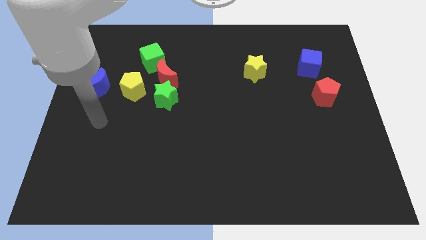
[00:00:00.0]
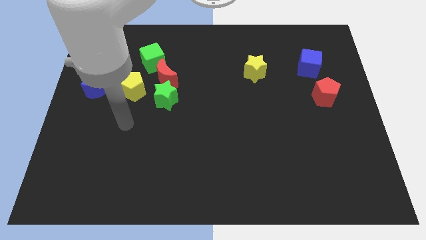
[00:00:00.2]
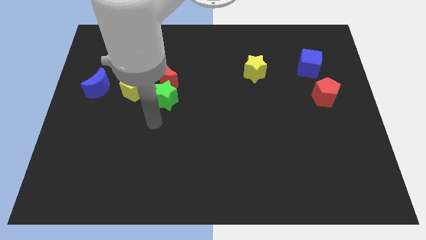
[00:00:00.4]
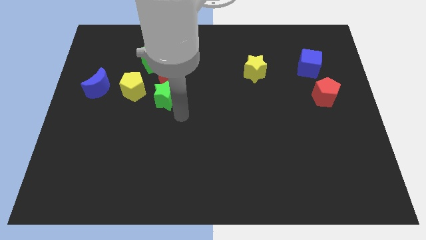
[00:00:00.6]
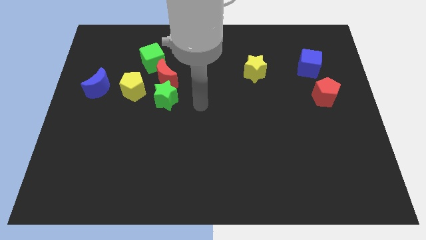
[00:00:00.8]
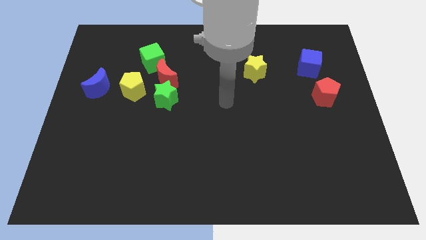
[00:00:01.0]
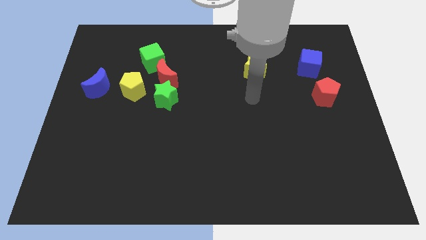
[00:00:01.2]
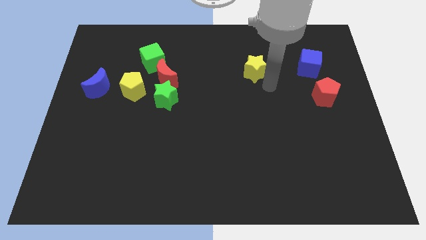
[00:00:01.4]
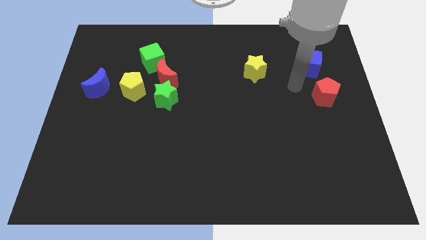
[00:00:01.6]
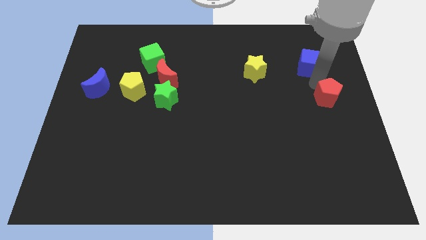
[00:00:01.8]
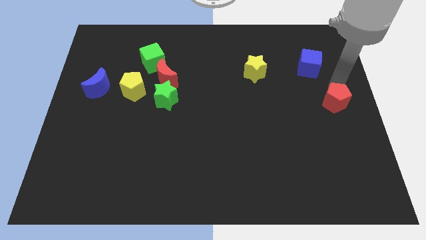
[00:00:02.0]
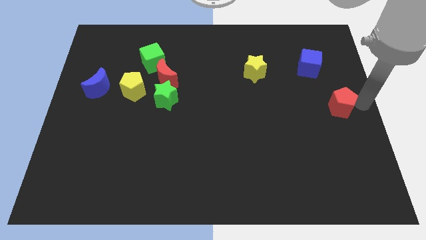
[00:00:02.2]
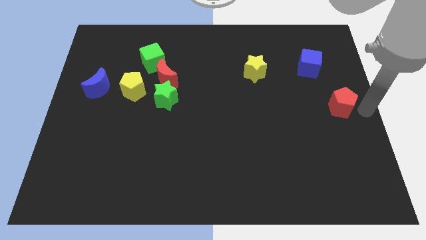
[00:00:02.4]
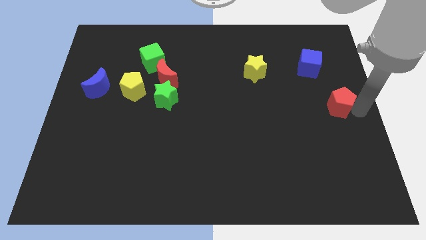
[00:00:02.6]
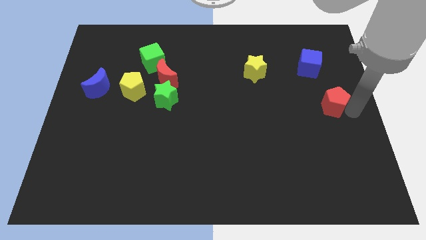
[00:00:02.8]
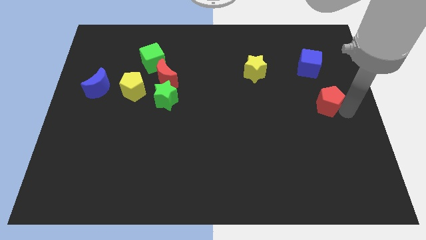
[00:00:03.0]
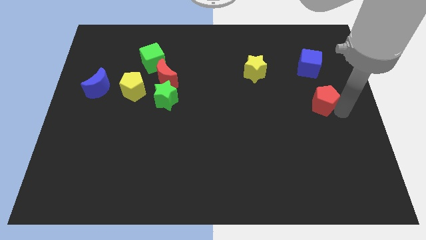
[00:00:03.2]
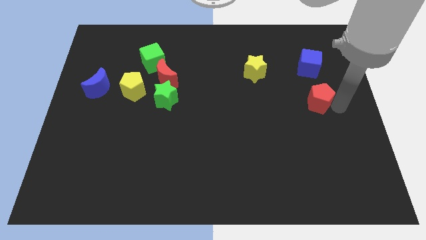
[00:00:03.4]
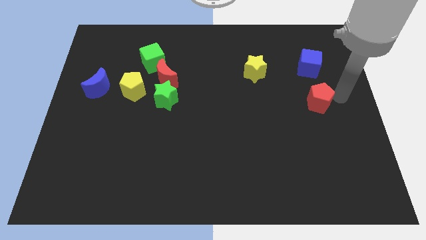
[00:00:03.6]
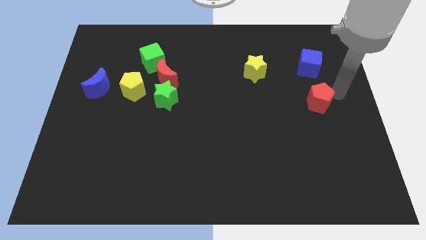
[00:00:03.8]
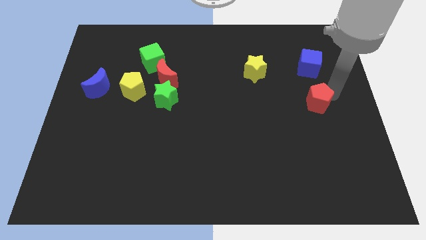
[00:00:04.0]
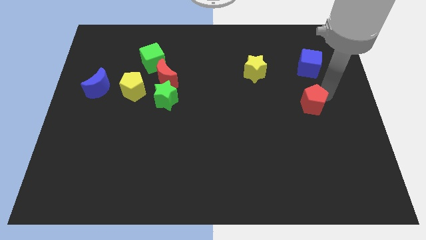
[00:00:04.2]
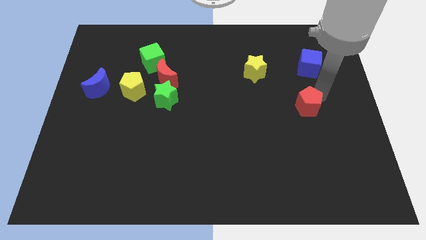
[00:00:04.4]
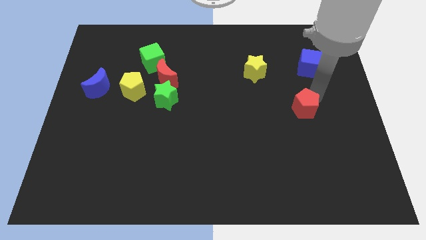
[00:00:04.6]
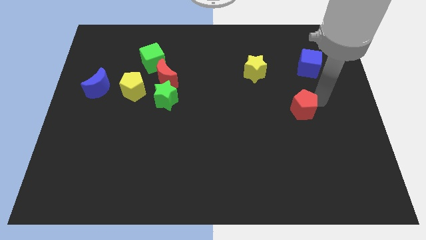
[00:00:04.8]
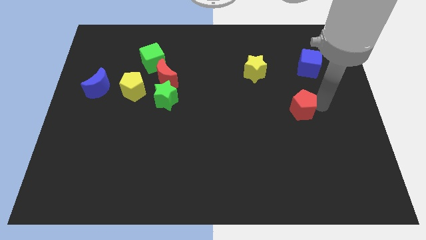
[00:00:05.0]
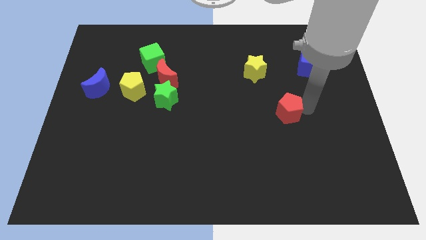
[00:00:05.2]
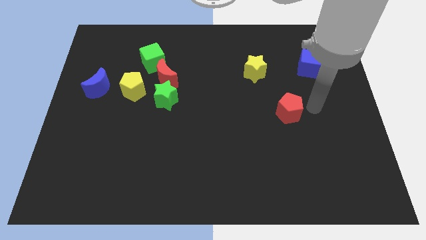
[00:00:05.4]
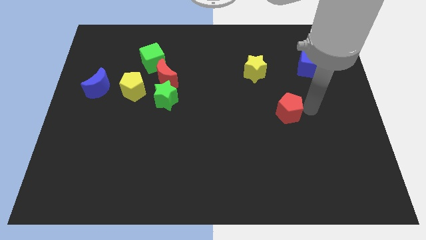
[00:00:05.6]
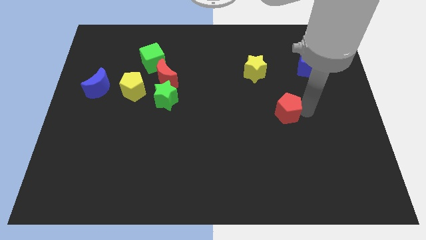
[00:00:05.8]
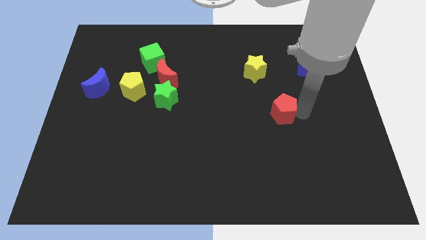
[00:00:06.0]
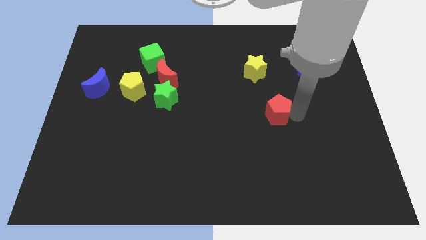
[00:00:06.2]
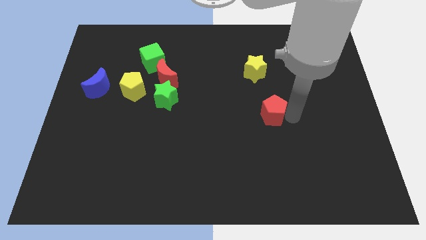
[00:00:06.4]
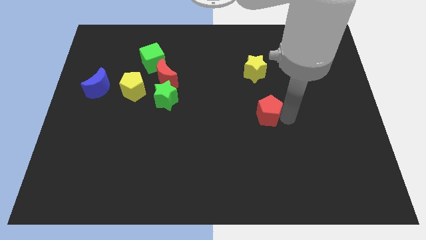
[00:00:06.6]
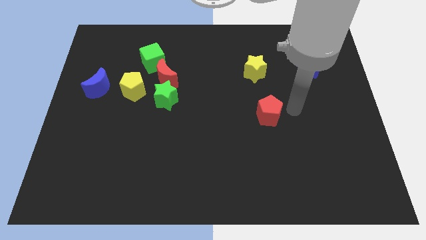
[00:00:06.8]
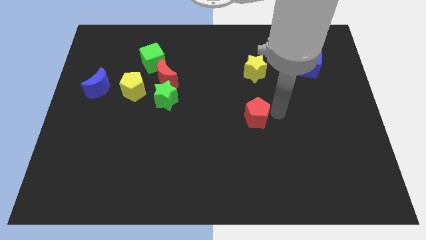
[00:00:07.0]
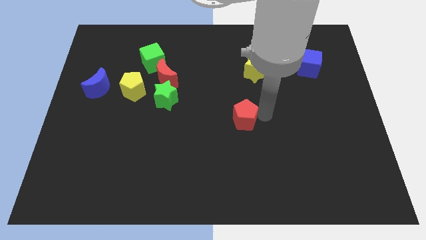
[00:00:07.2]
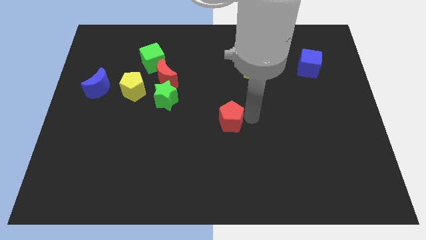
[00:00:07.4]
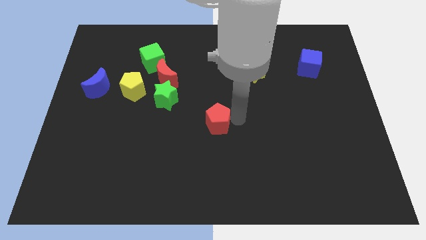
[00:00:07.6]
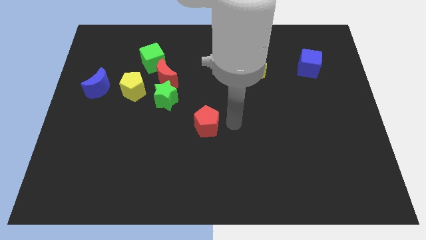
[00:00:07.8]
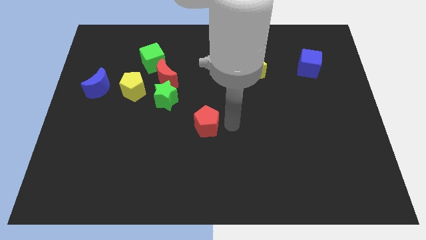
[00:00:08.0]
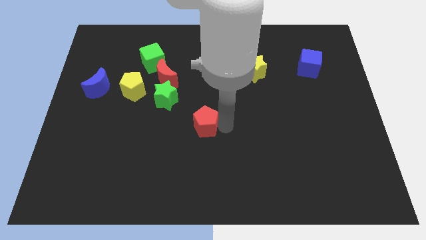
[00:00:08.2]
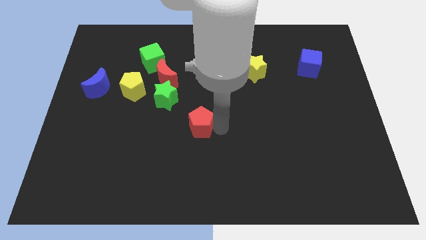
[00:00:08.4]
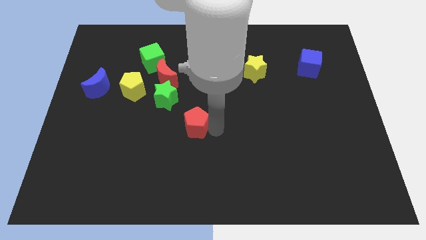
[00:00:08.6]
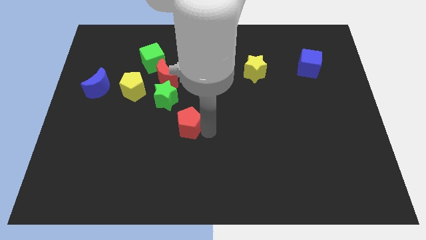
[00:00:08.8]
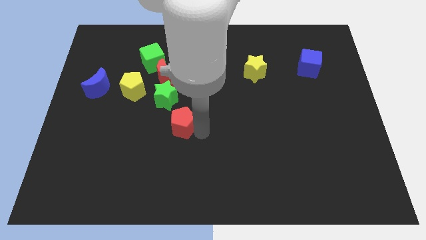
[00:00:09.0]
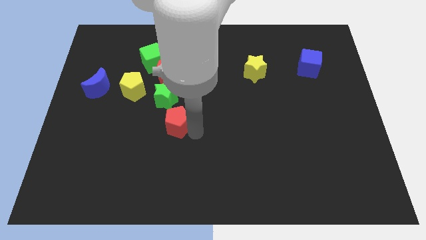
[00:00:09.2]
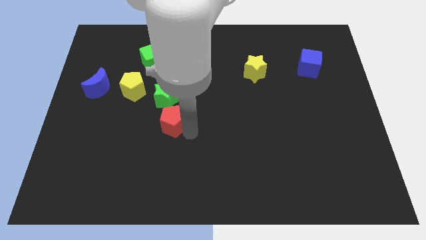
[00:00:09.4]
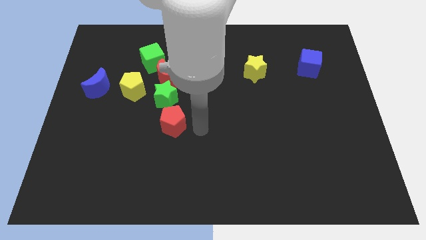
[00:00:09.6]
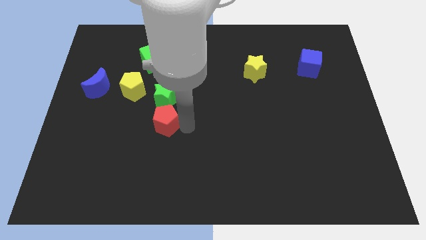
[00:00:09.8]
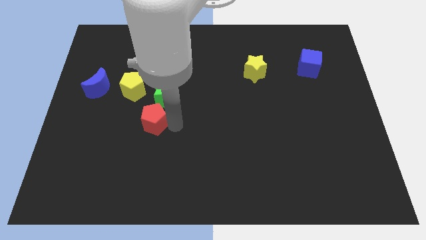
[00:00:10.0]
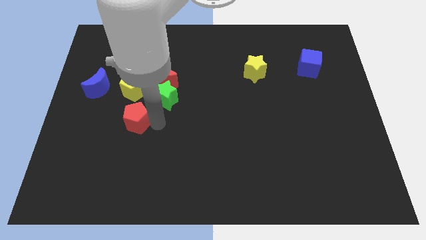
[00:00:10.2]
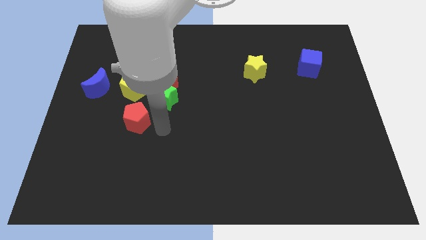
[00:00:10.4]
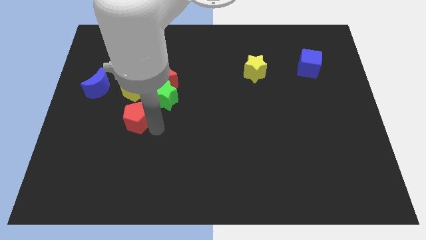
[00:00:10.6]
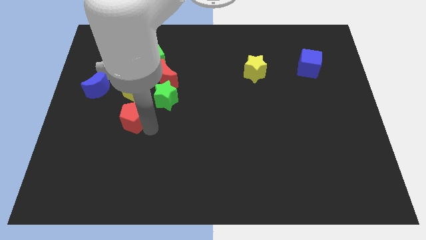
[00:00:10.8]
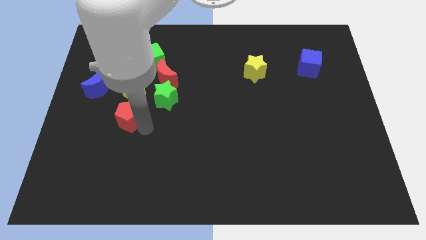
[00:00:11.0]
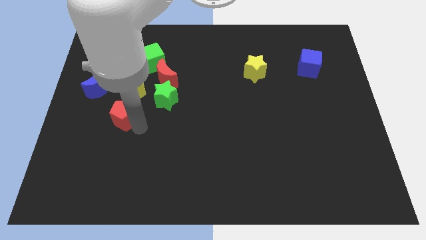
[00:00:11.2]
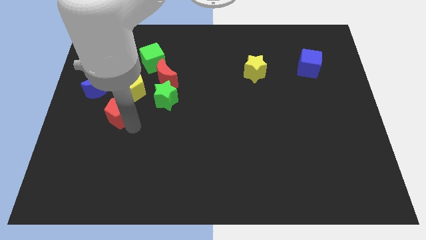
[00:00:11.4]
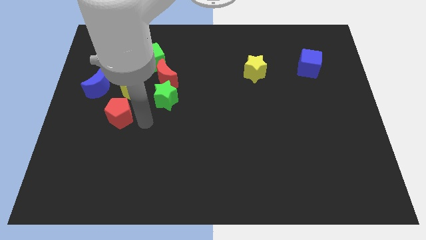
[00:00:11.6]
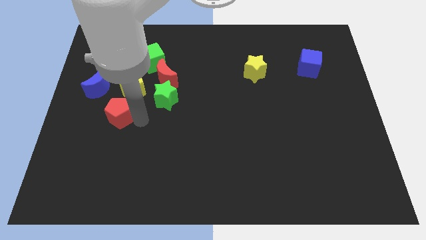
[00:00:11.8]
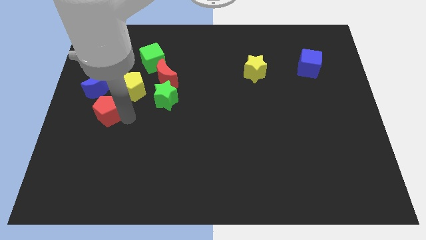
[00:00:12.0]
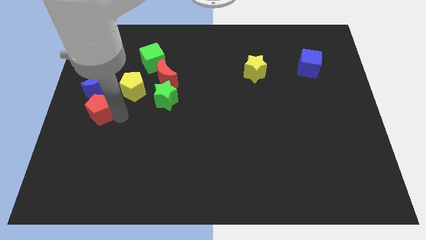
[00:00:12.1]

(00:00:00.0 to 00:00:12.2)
slide the red pentagon to the center left
